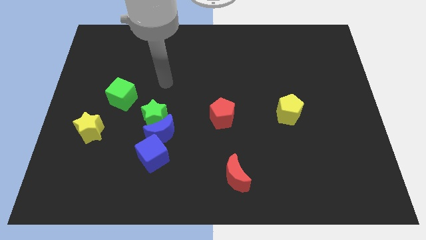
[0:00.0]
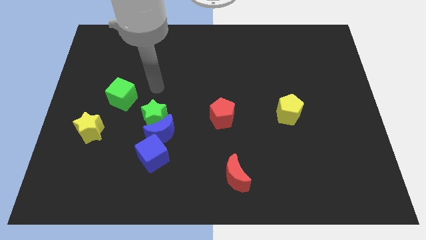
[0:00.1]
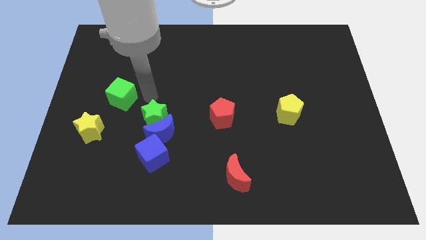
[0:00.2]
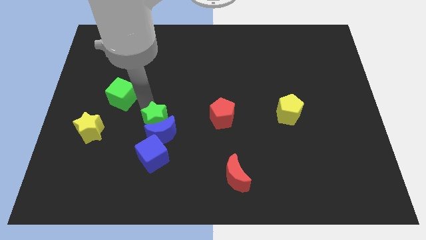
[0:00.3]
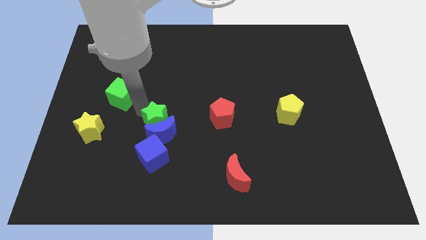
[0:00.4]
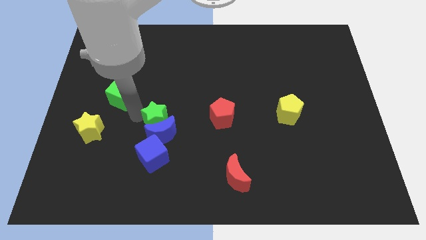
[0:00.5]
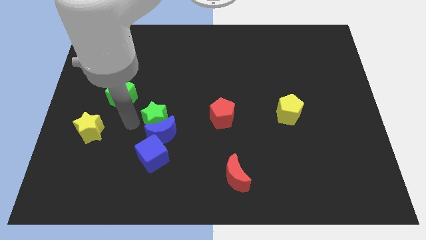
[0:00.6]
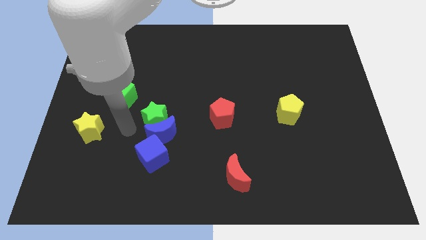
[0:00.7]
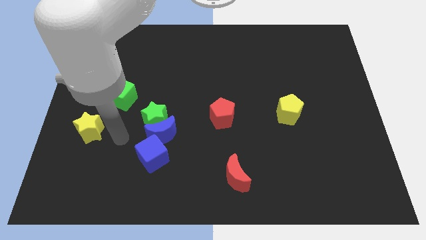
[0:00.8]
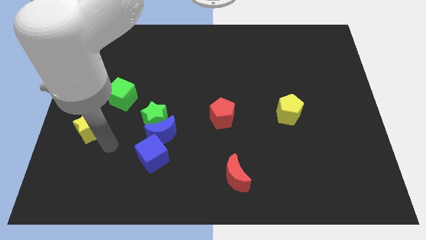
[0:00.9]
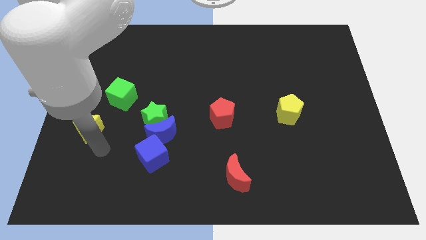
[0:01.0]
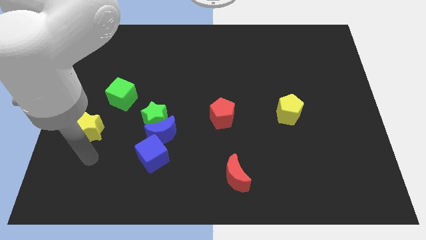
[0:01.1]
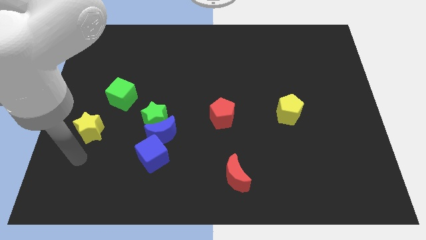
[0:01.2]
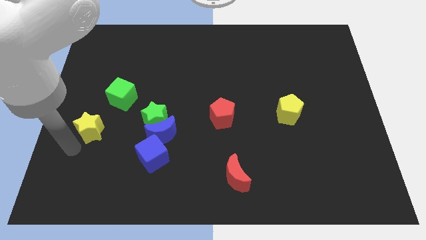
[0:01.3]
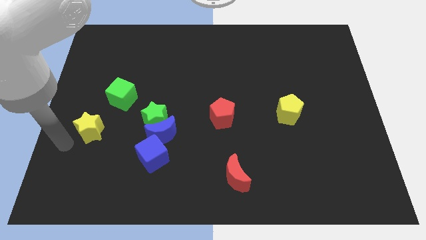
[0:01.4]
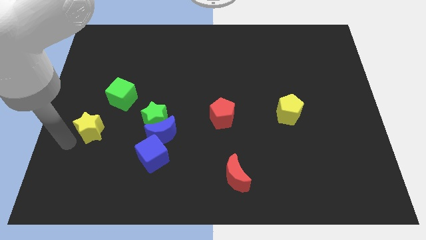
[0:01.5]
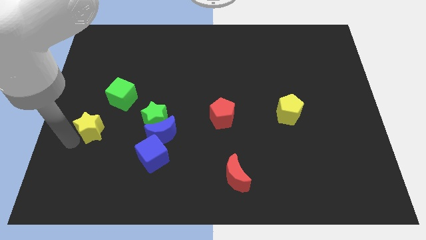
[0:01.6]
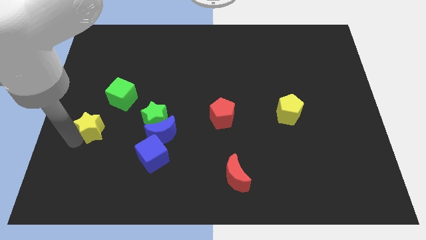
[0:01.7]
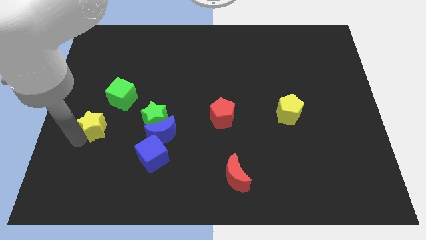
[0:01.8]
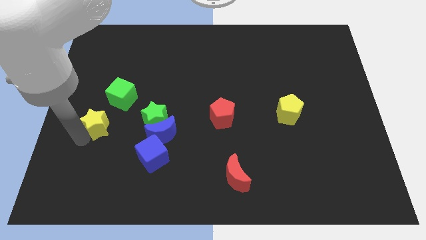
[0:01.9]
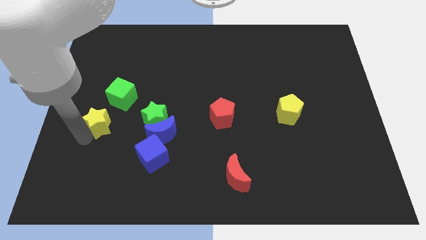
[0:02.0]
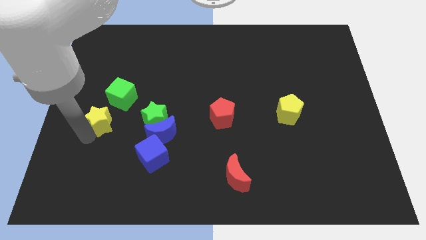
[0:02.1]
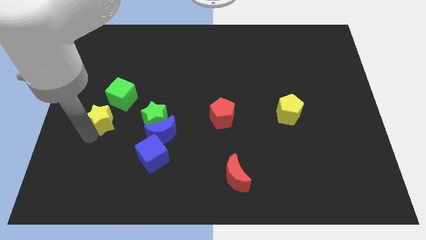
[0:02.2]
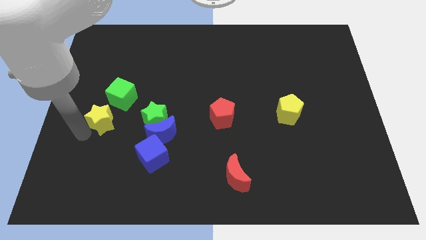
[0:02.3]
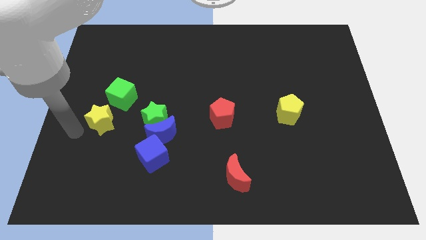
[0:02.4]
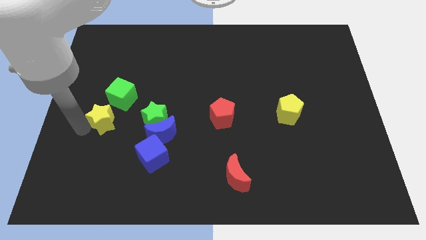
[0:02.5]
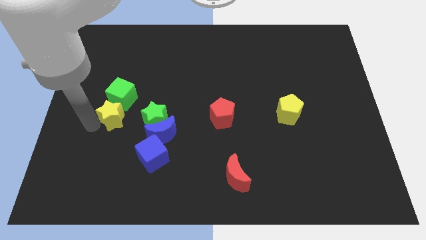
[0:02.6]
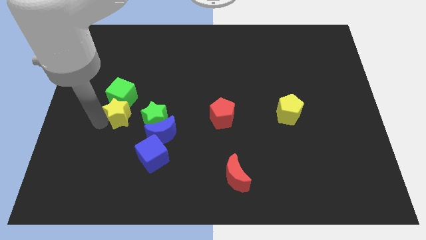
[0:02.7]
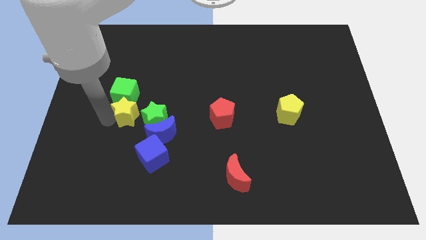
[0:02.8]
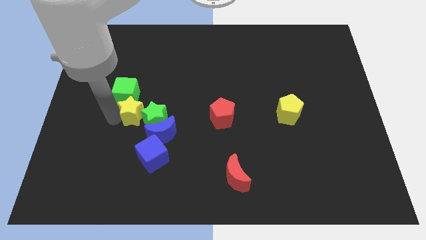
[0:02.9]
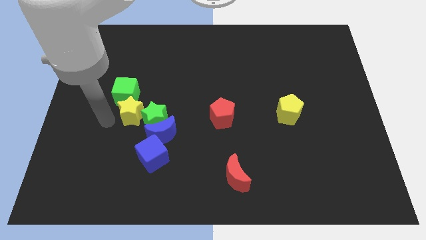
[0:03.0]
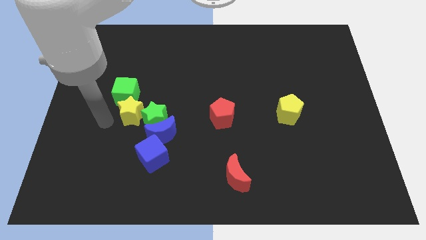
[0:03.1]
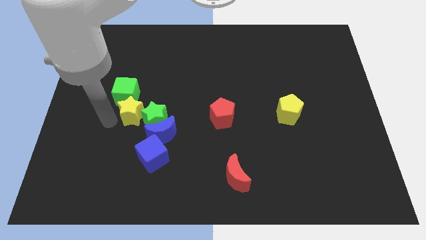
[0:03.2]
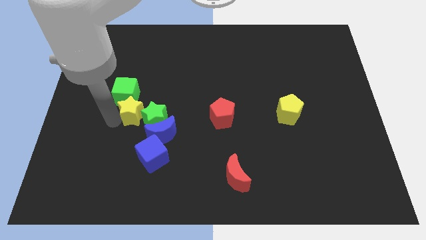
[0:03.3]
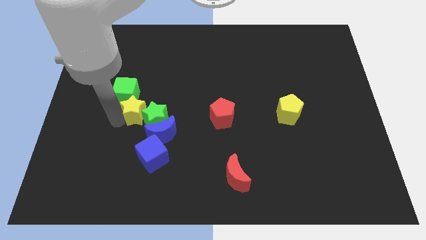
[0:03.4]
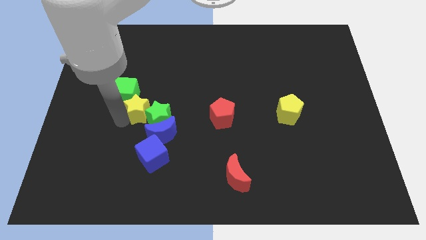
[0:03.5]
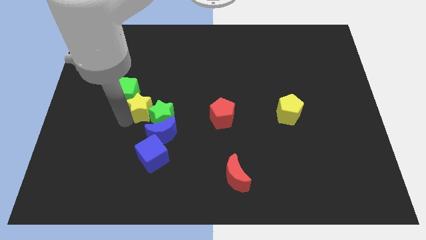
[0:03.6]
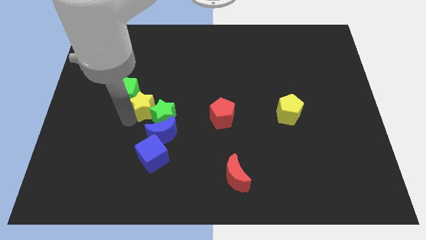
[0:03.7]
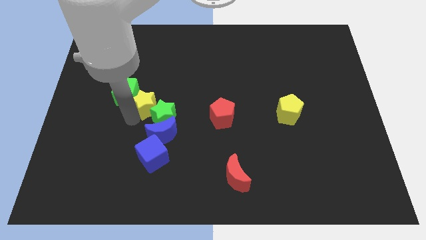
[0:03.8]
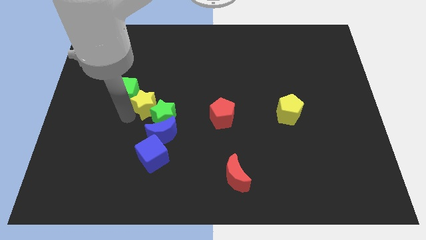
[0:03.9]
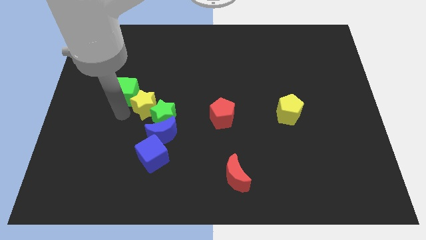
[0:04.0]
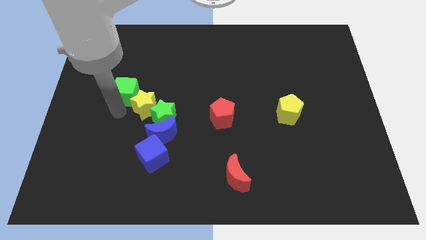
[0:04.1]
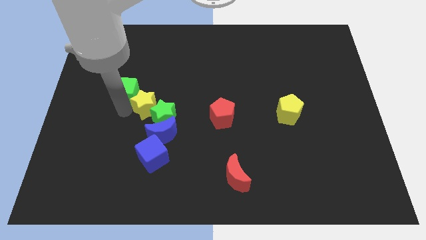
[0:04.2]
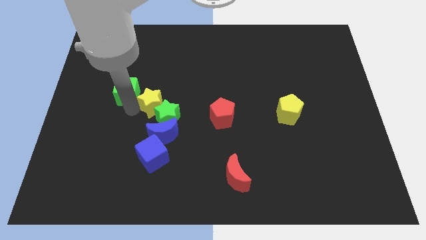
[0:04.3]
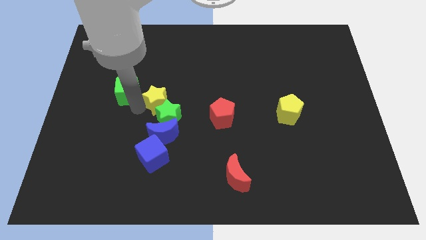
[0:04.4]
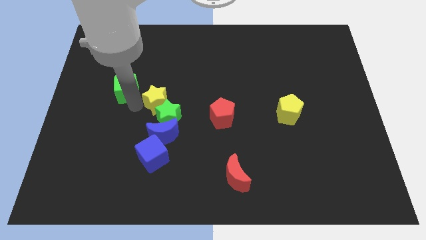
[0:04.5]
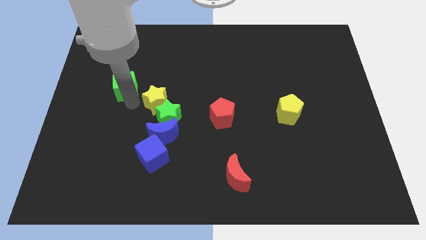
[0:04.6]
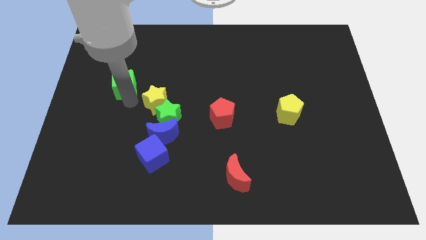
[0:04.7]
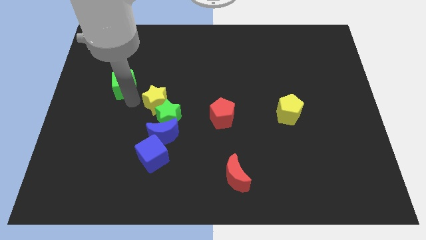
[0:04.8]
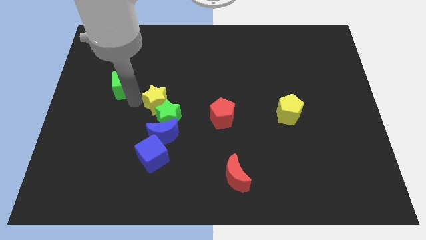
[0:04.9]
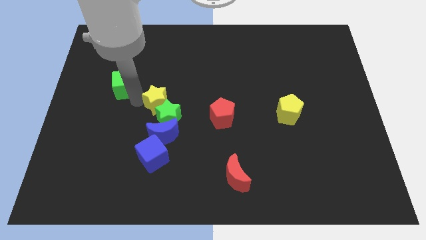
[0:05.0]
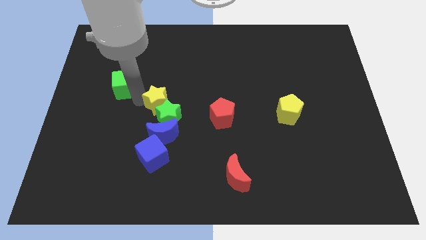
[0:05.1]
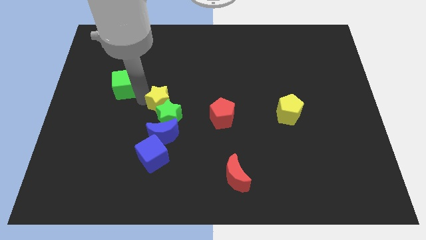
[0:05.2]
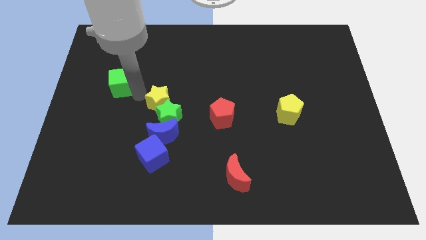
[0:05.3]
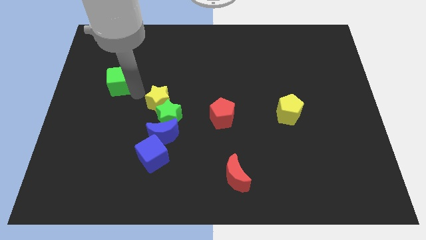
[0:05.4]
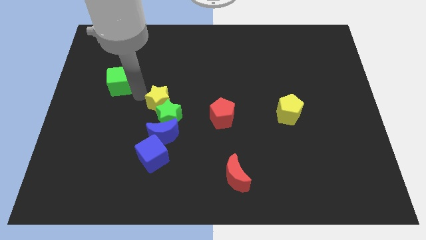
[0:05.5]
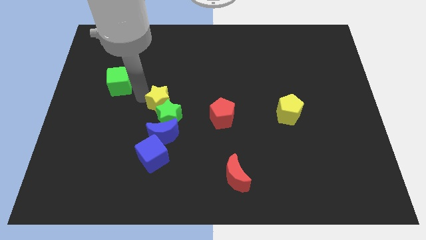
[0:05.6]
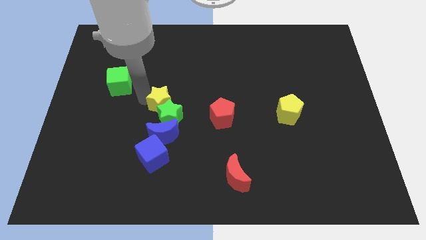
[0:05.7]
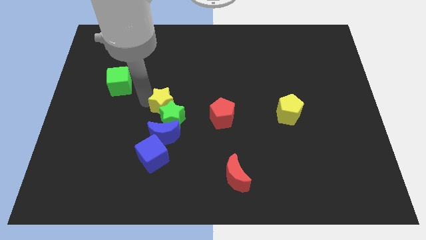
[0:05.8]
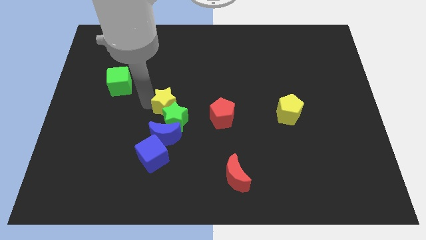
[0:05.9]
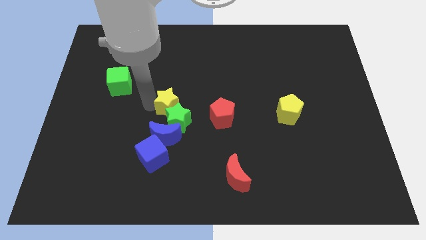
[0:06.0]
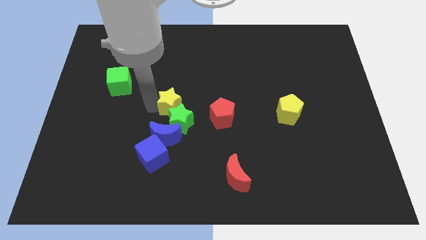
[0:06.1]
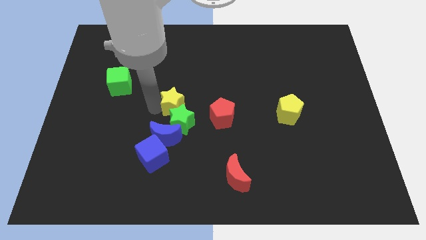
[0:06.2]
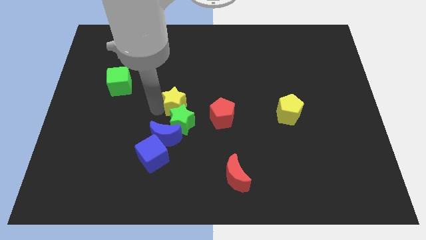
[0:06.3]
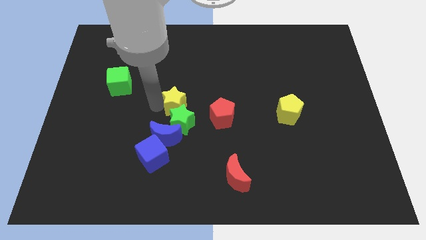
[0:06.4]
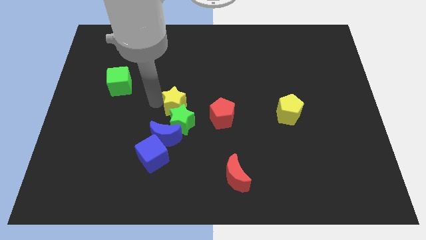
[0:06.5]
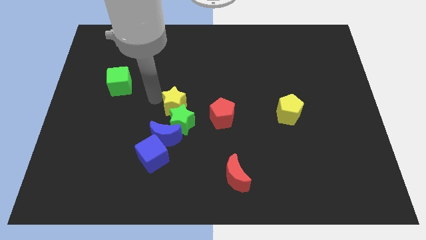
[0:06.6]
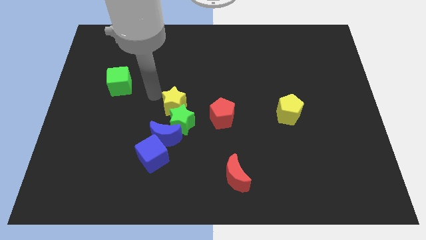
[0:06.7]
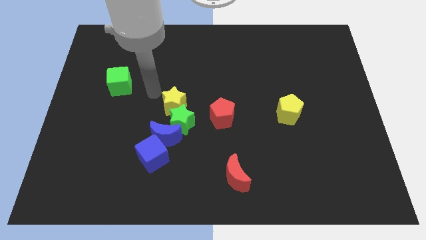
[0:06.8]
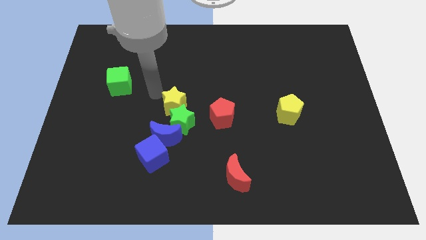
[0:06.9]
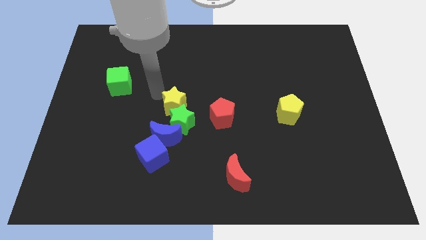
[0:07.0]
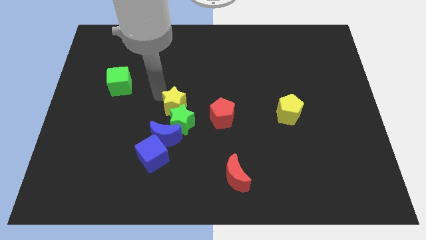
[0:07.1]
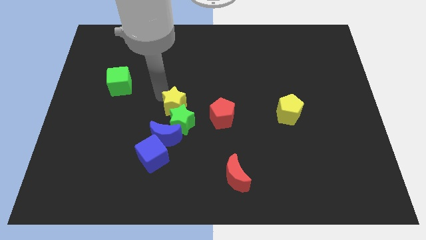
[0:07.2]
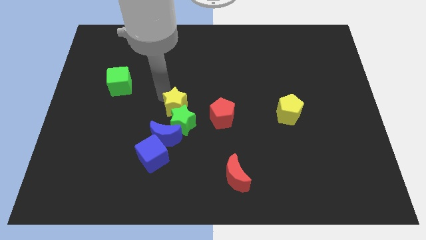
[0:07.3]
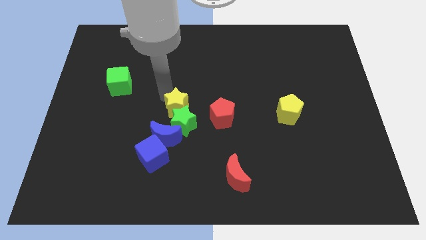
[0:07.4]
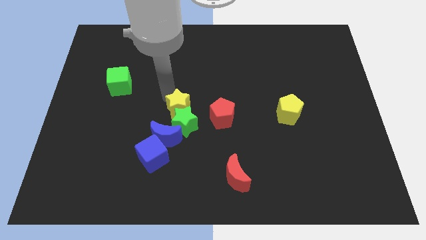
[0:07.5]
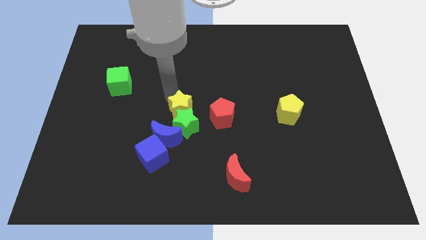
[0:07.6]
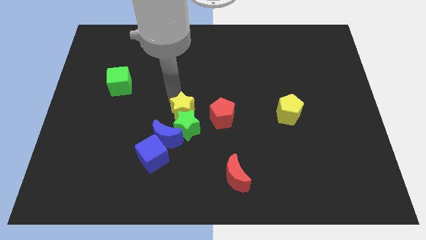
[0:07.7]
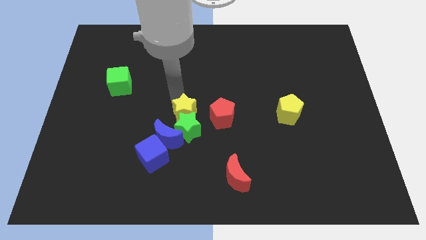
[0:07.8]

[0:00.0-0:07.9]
slide the yellow star right
